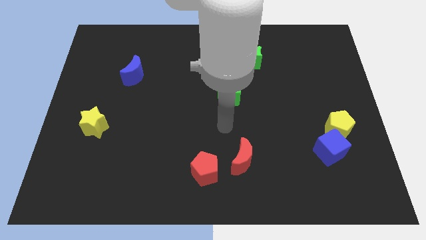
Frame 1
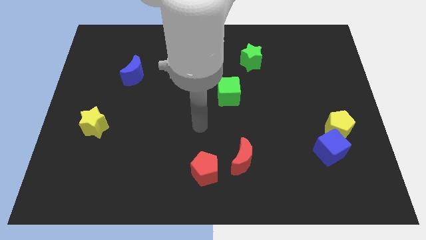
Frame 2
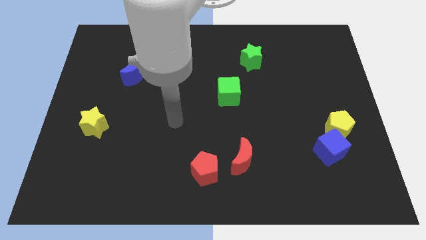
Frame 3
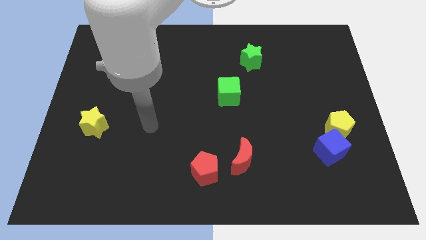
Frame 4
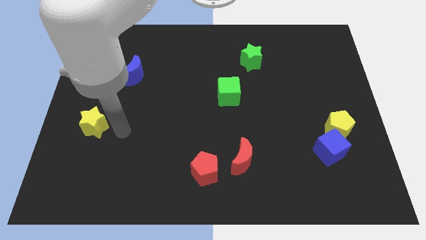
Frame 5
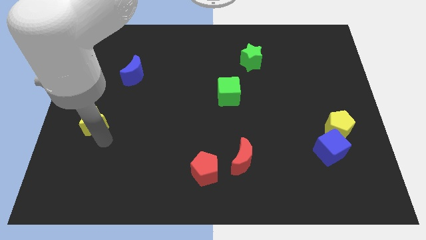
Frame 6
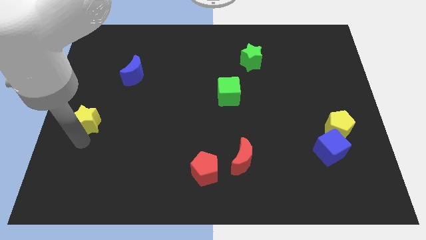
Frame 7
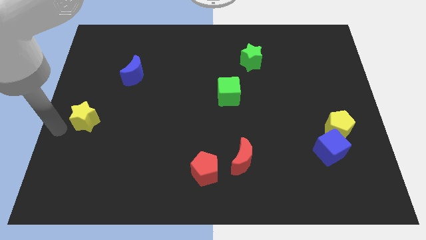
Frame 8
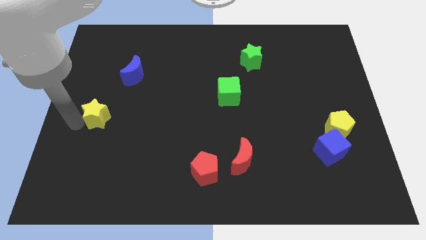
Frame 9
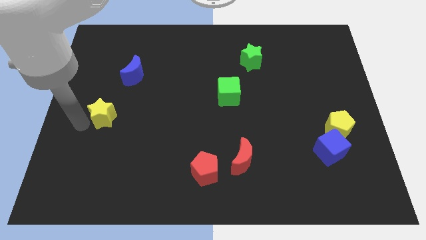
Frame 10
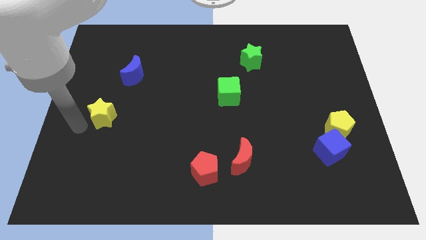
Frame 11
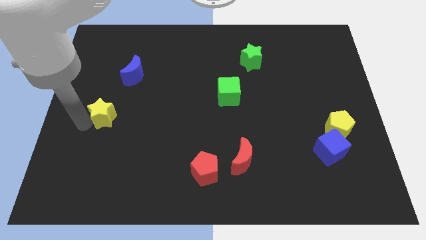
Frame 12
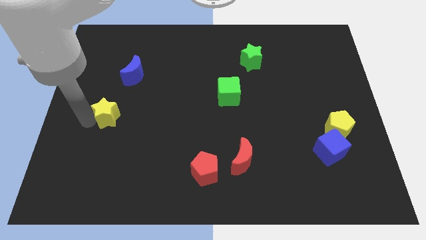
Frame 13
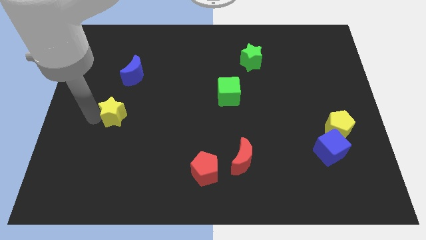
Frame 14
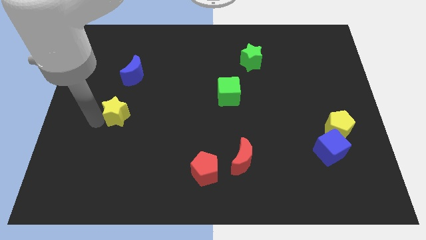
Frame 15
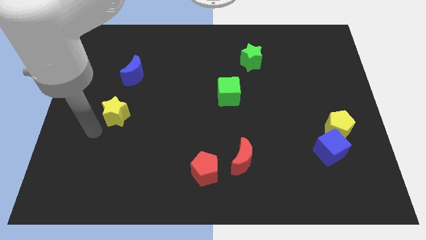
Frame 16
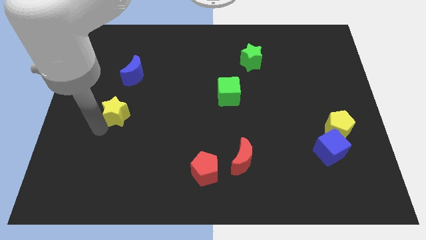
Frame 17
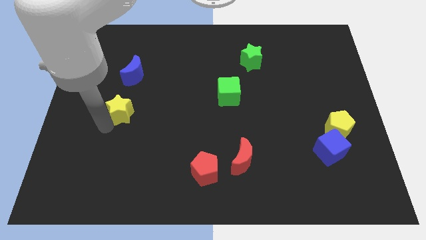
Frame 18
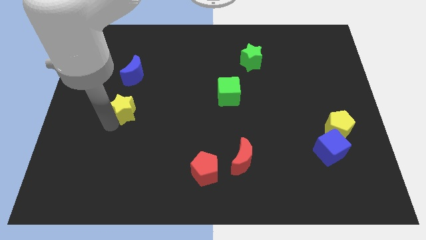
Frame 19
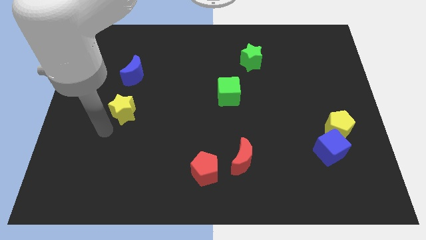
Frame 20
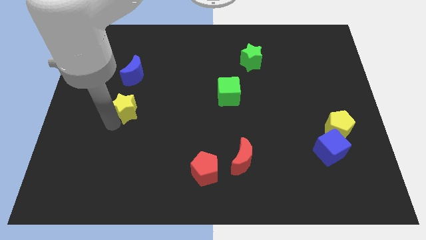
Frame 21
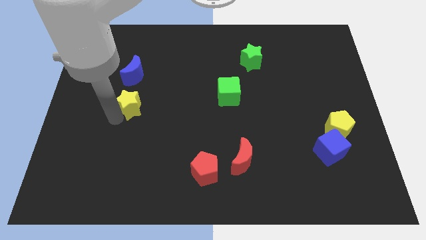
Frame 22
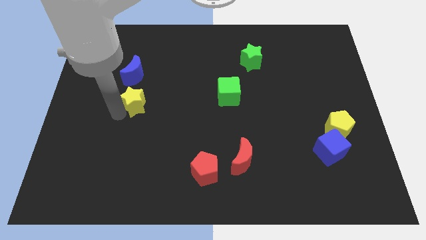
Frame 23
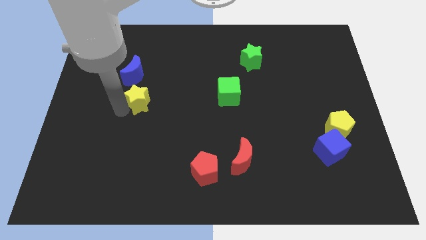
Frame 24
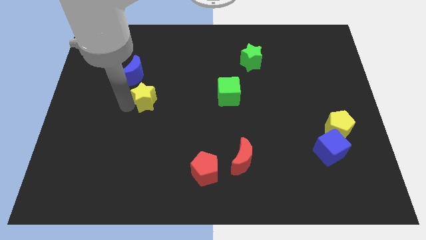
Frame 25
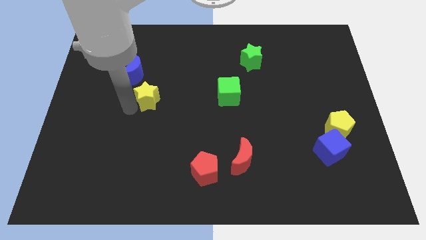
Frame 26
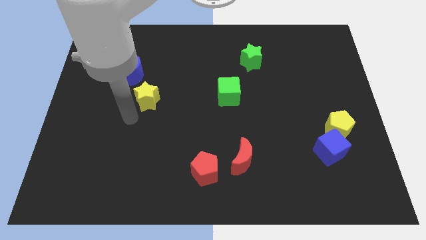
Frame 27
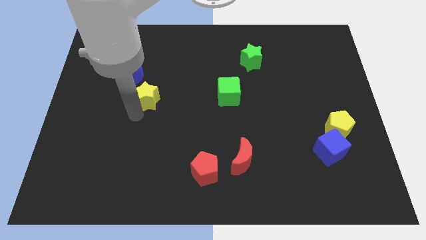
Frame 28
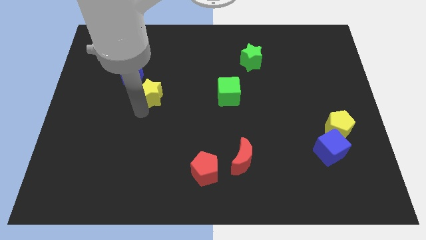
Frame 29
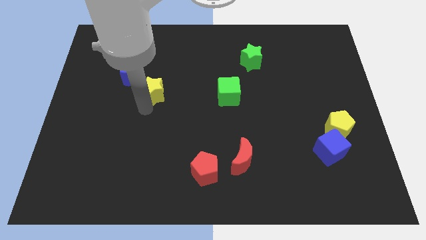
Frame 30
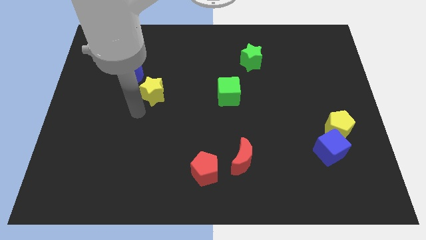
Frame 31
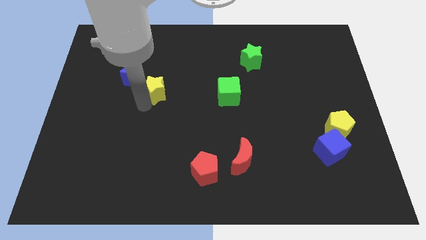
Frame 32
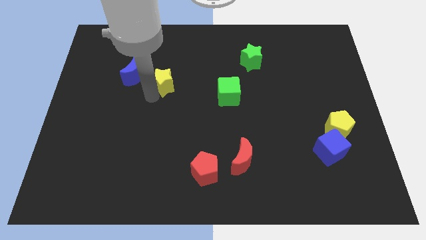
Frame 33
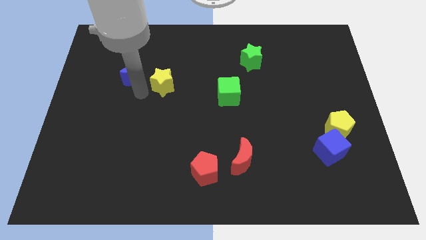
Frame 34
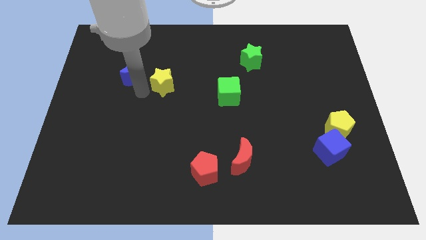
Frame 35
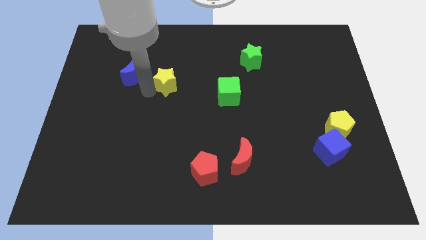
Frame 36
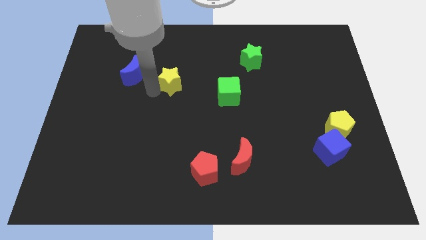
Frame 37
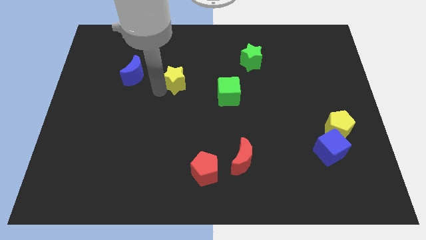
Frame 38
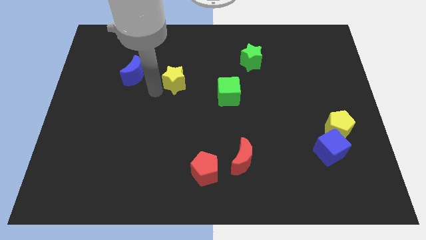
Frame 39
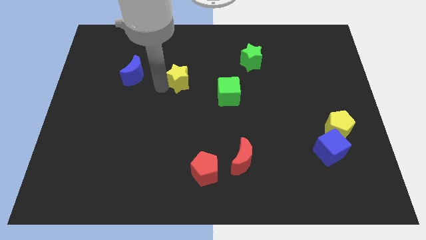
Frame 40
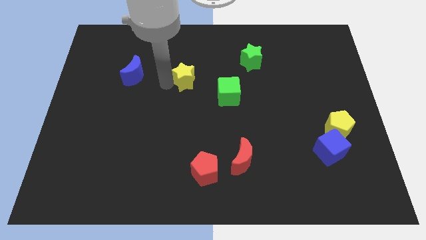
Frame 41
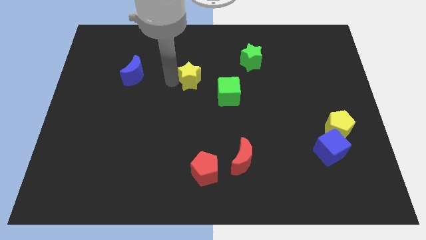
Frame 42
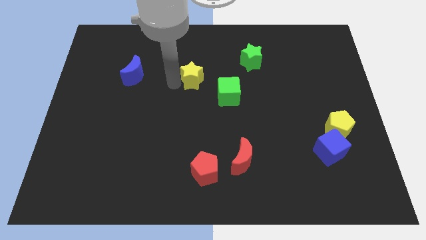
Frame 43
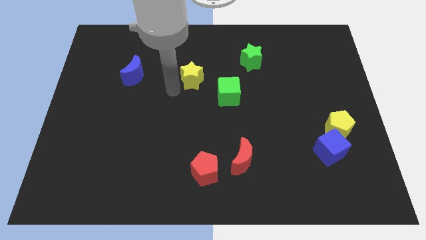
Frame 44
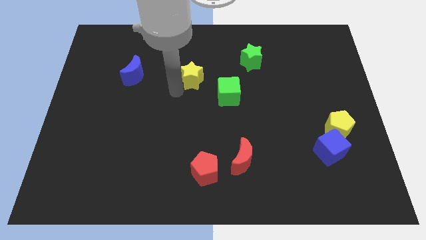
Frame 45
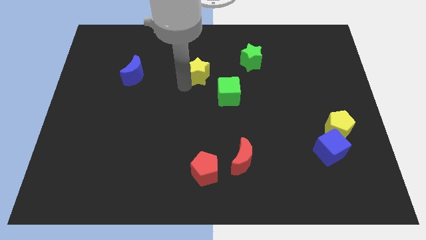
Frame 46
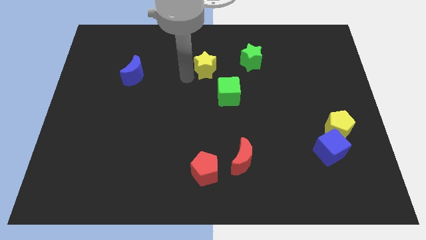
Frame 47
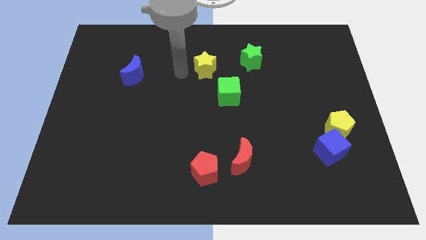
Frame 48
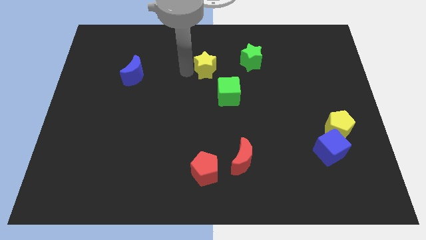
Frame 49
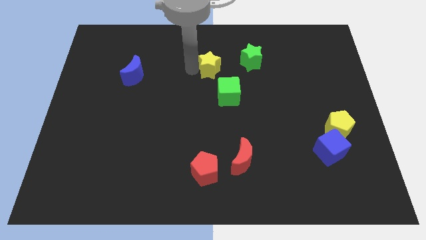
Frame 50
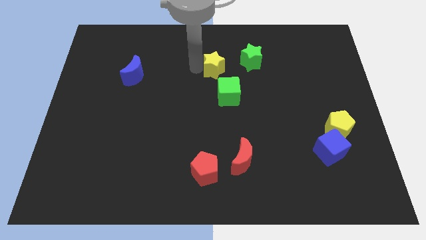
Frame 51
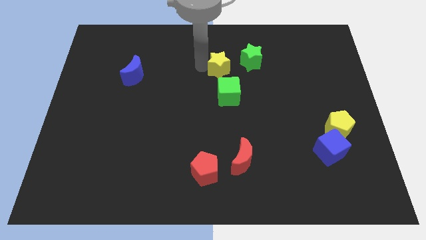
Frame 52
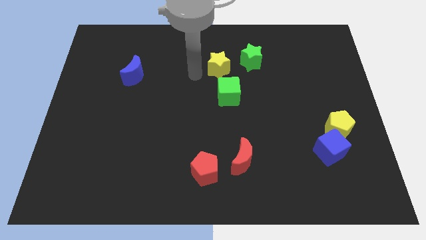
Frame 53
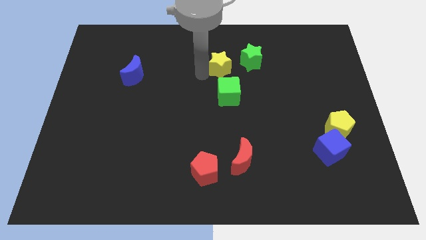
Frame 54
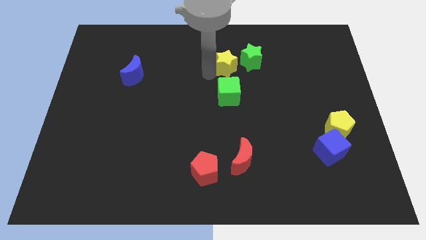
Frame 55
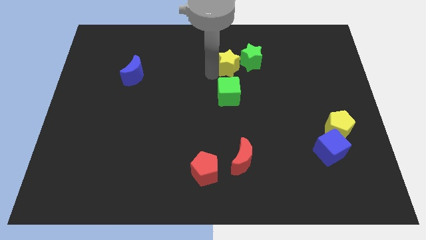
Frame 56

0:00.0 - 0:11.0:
move the yellow star to the green star
